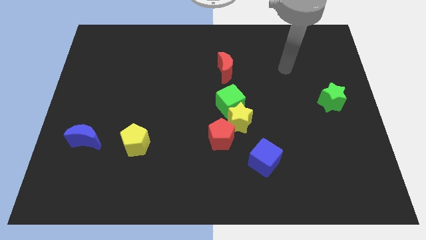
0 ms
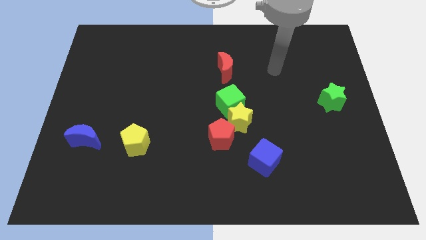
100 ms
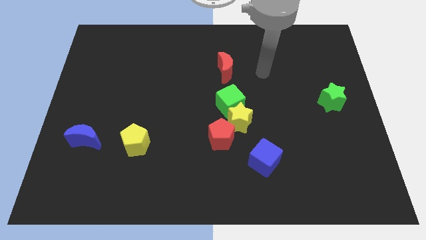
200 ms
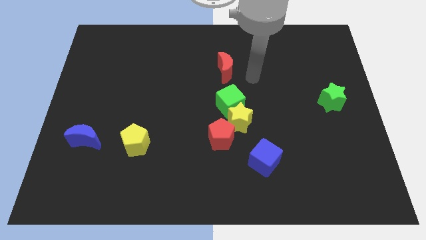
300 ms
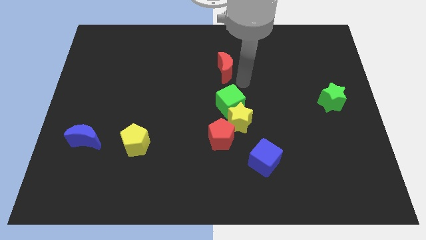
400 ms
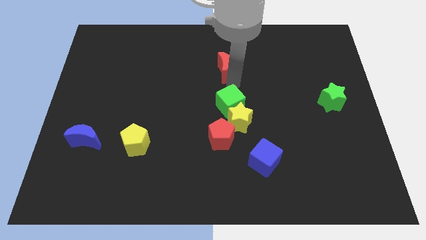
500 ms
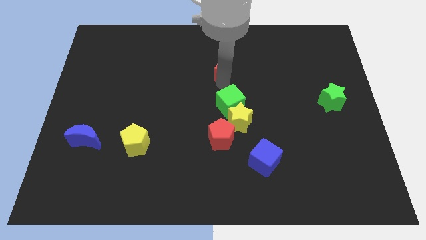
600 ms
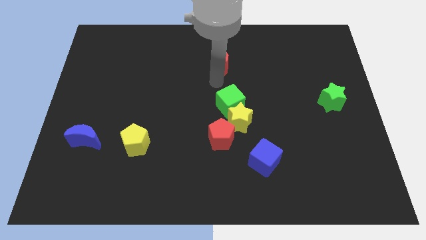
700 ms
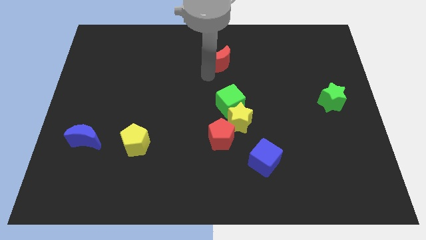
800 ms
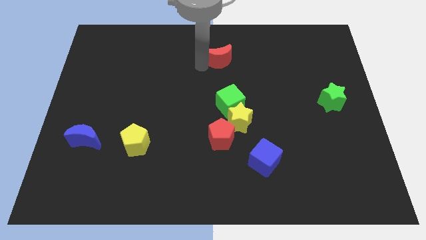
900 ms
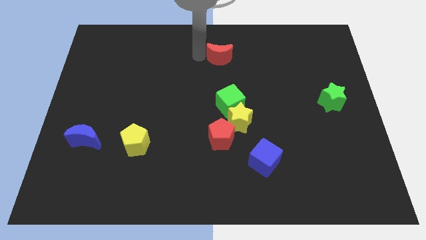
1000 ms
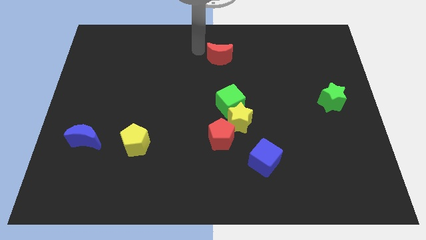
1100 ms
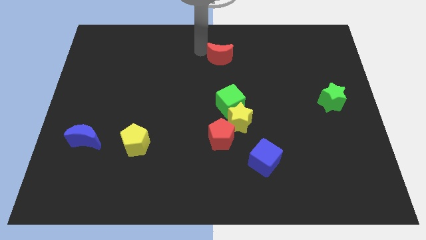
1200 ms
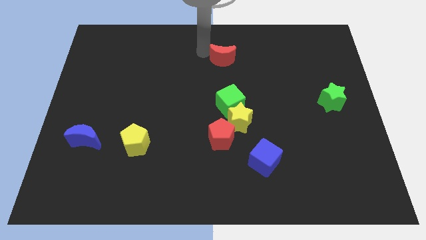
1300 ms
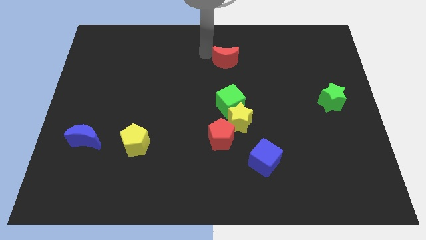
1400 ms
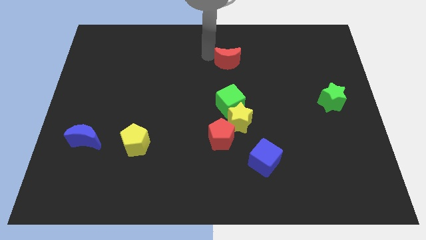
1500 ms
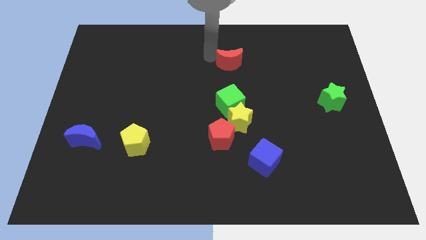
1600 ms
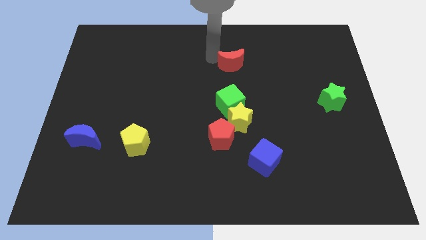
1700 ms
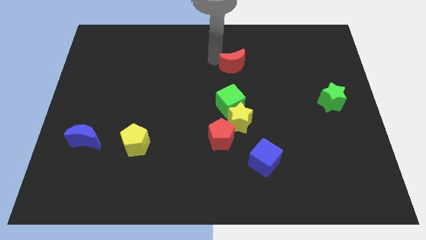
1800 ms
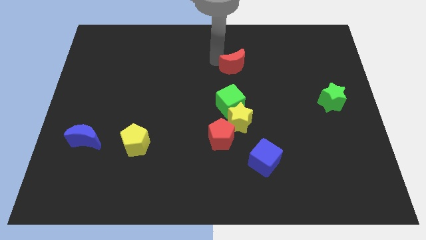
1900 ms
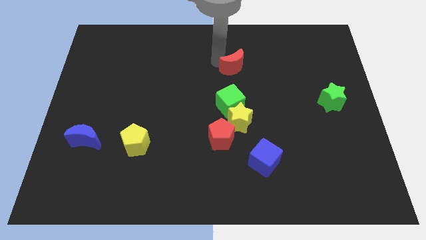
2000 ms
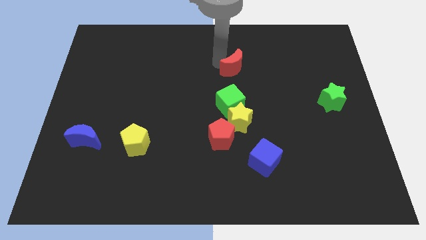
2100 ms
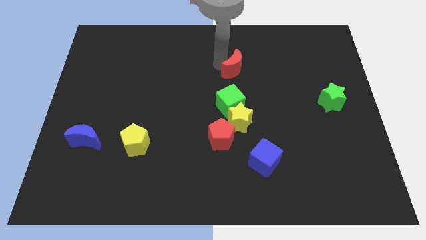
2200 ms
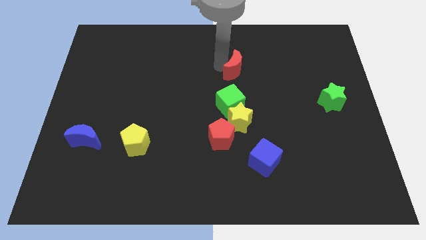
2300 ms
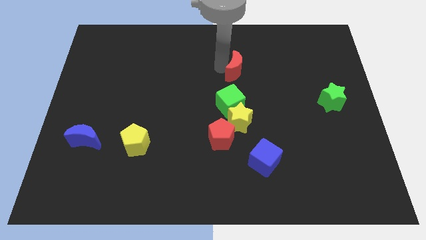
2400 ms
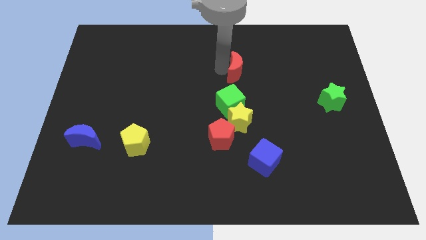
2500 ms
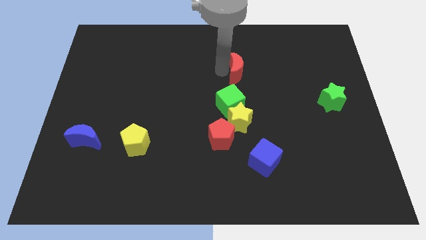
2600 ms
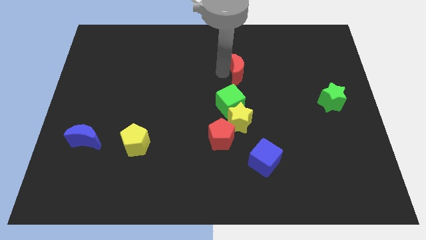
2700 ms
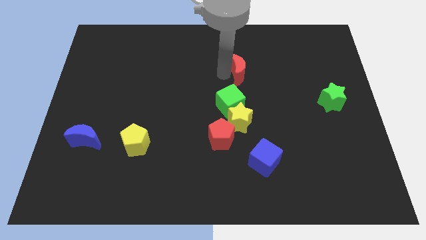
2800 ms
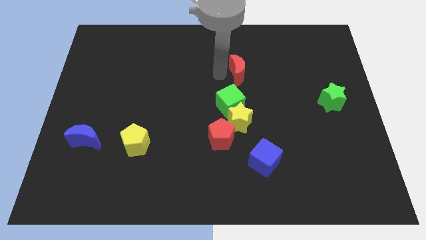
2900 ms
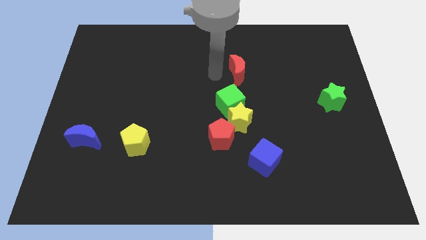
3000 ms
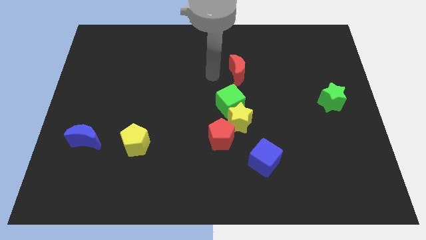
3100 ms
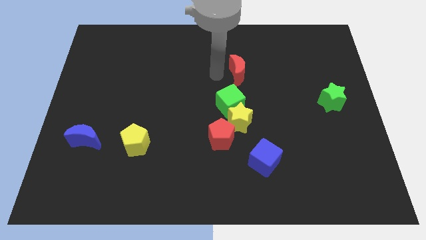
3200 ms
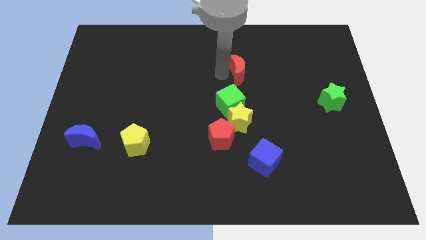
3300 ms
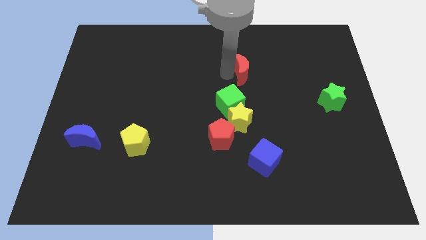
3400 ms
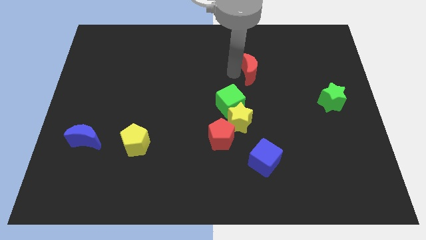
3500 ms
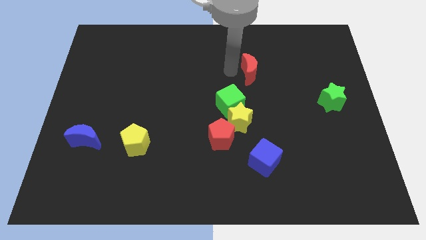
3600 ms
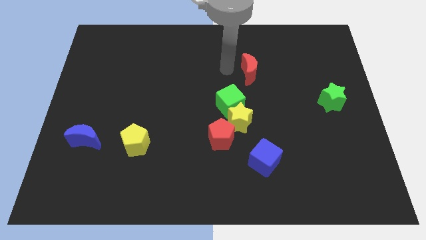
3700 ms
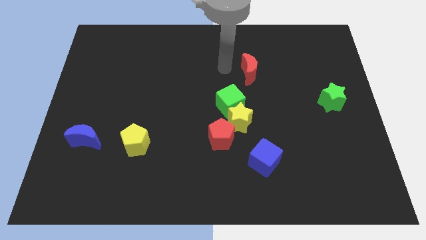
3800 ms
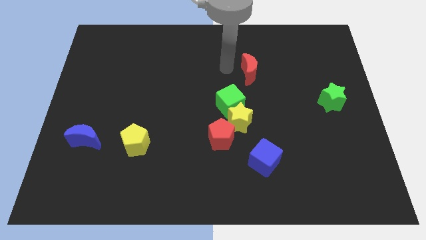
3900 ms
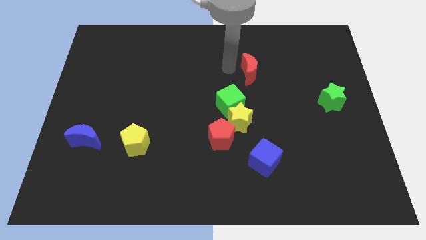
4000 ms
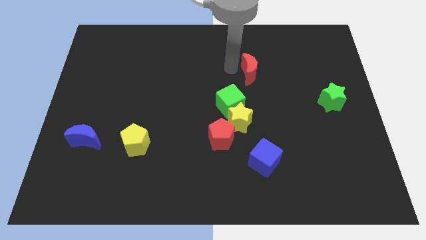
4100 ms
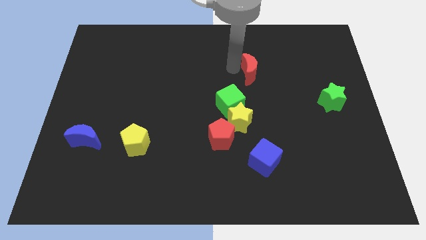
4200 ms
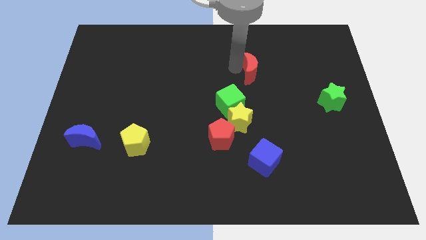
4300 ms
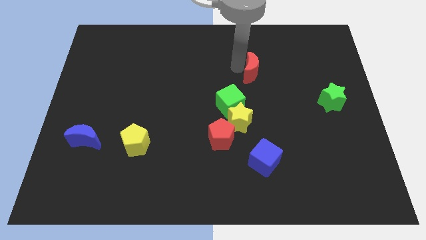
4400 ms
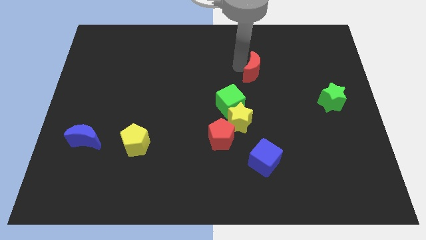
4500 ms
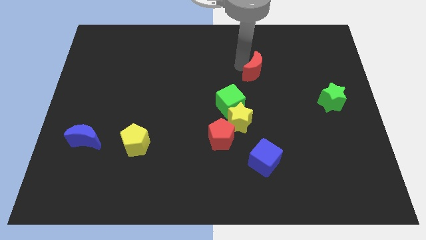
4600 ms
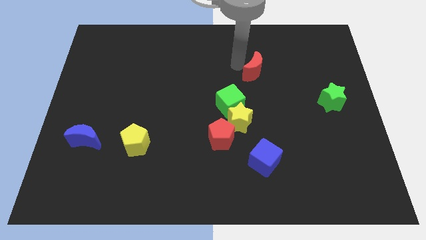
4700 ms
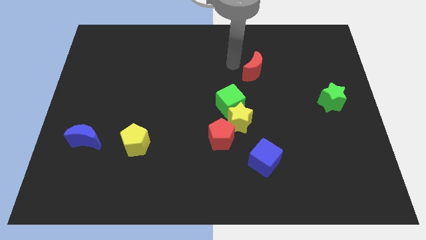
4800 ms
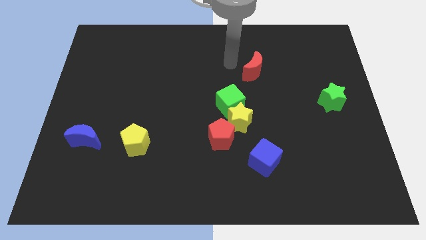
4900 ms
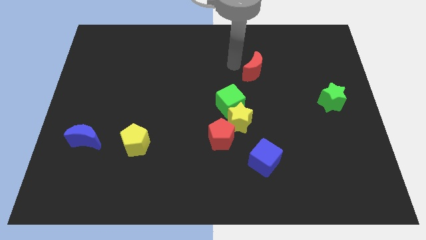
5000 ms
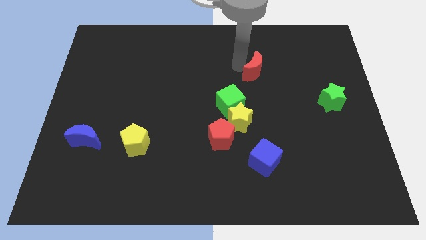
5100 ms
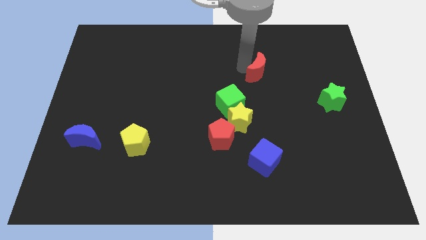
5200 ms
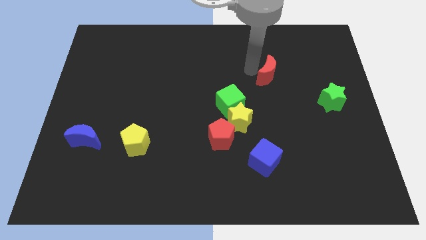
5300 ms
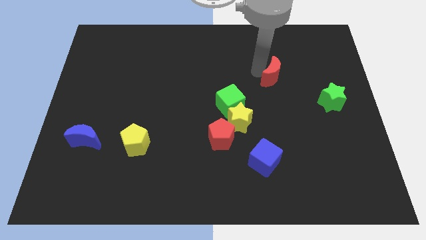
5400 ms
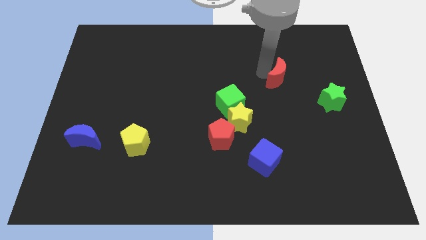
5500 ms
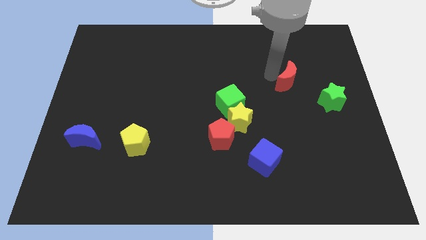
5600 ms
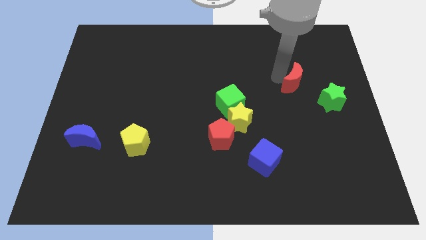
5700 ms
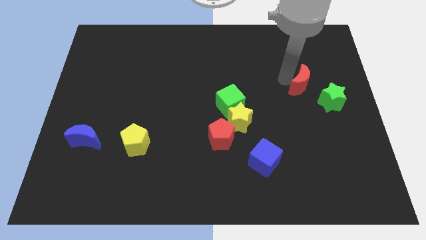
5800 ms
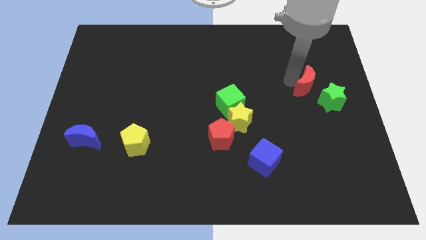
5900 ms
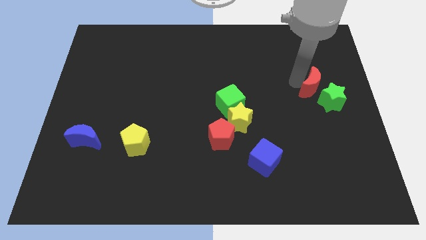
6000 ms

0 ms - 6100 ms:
move the red moon close to the green star

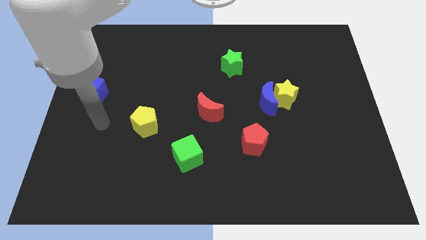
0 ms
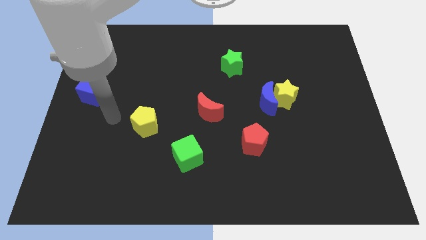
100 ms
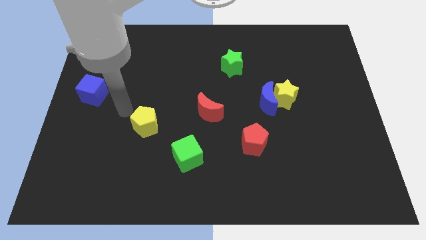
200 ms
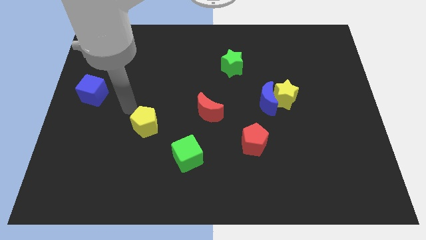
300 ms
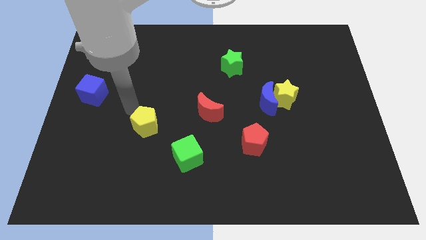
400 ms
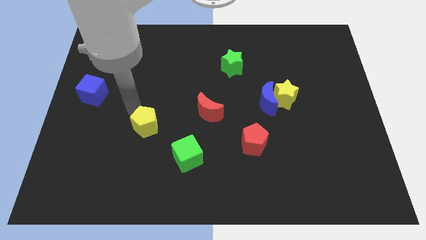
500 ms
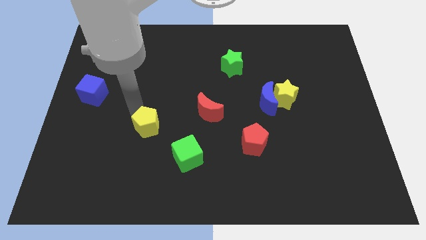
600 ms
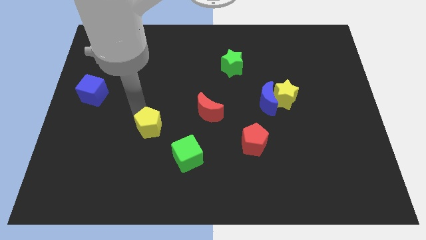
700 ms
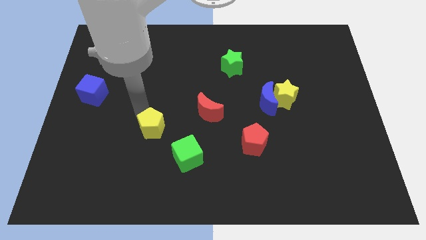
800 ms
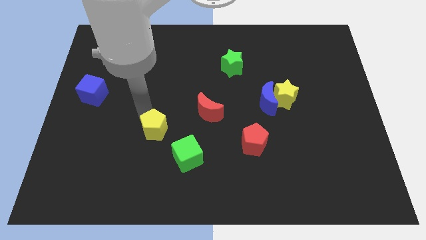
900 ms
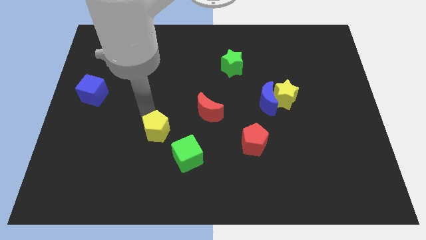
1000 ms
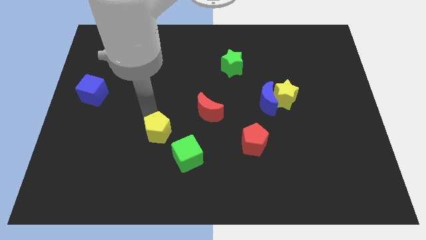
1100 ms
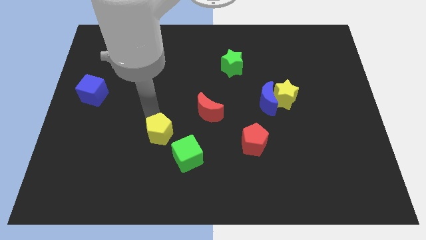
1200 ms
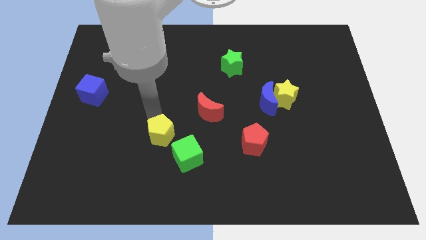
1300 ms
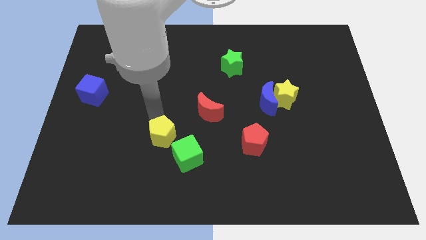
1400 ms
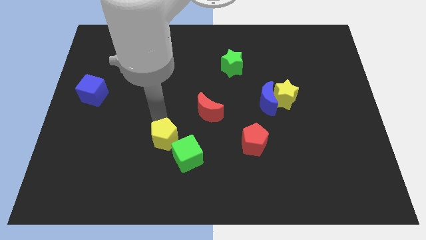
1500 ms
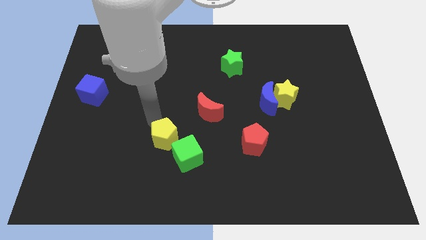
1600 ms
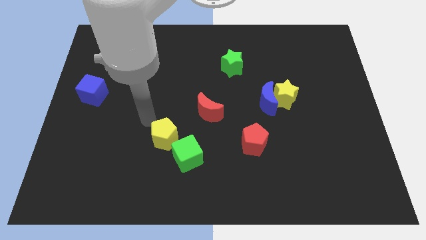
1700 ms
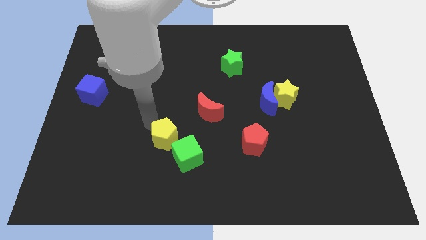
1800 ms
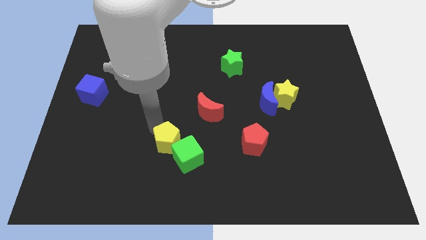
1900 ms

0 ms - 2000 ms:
move the yellow pentagon close to the green cube
